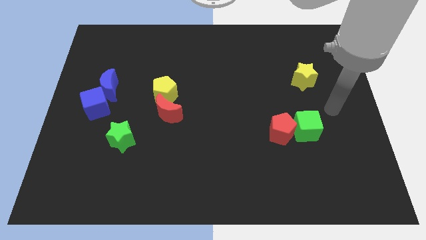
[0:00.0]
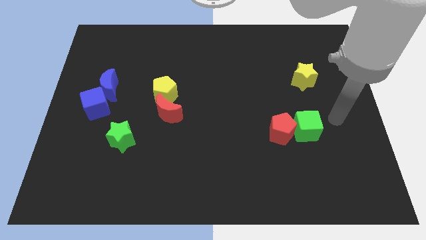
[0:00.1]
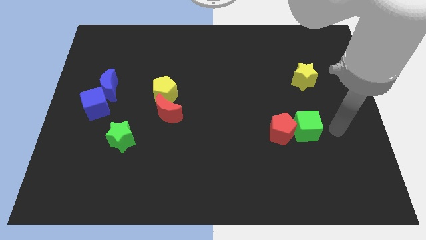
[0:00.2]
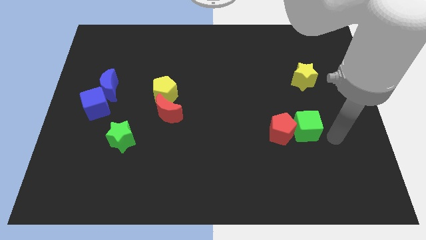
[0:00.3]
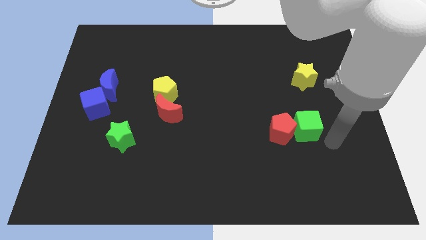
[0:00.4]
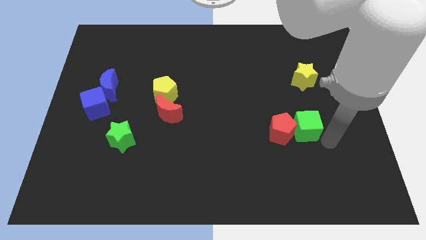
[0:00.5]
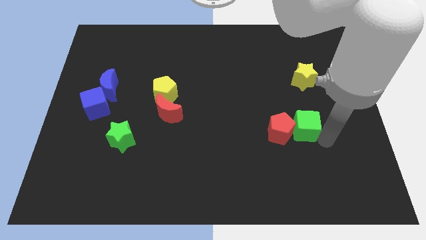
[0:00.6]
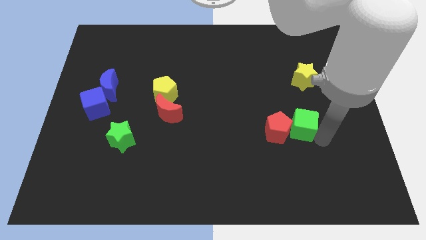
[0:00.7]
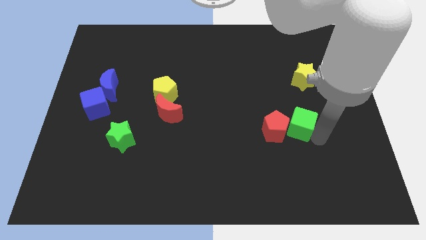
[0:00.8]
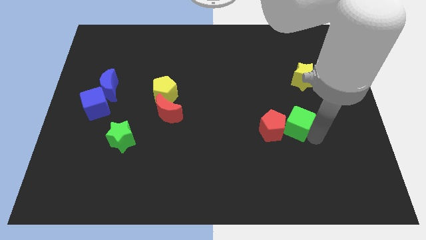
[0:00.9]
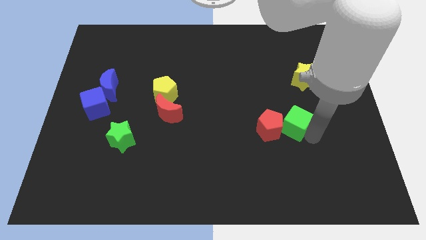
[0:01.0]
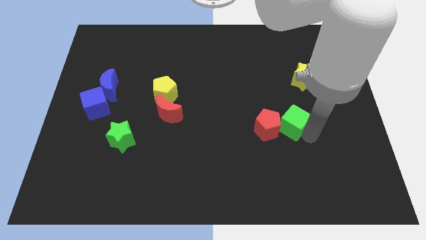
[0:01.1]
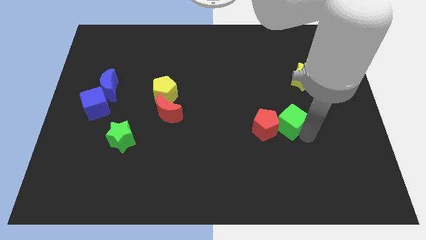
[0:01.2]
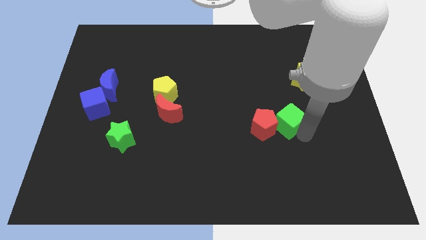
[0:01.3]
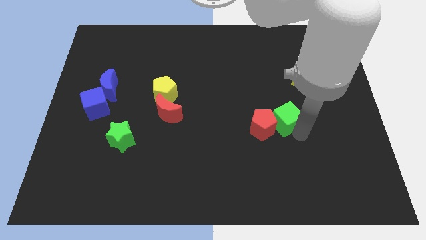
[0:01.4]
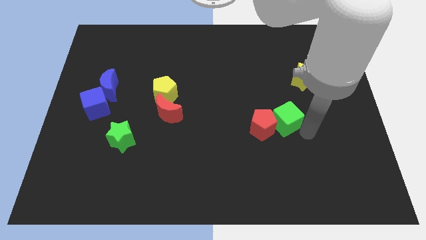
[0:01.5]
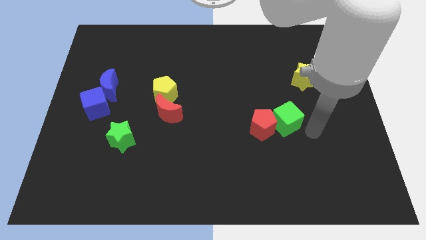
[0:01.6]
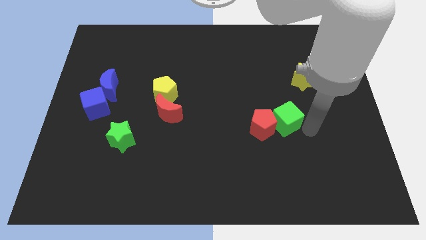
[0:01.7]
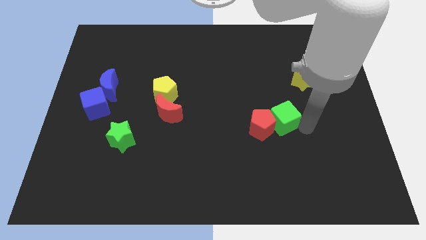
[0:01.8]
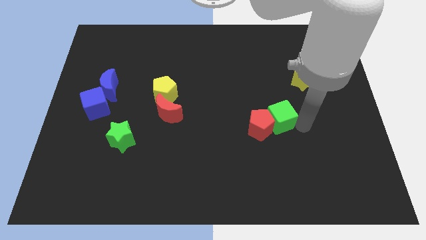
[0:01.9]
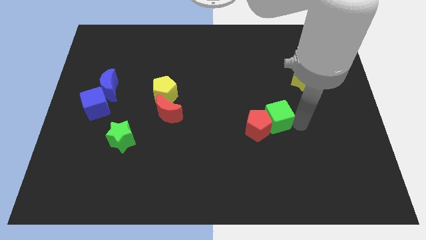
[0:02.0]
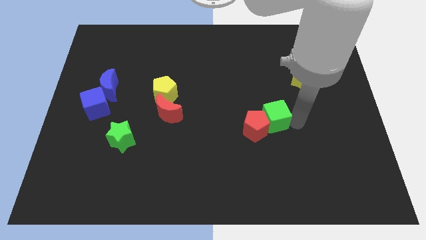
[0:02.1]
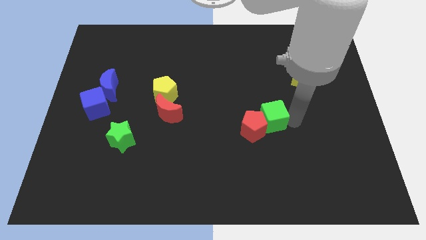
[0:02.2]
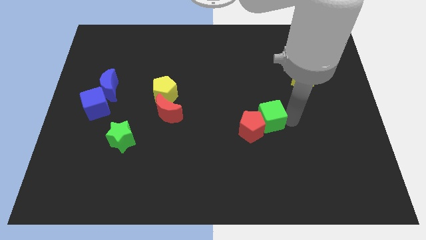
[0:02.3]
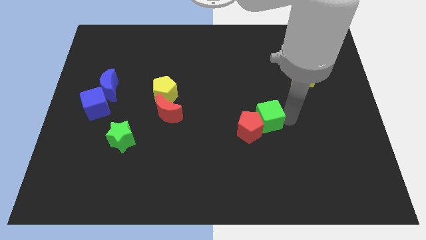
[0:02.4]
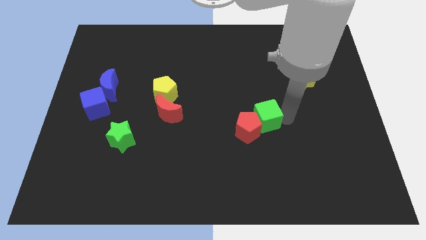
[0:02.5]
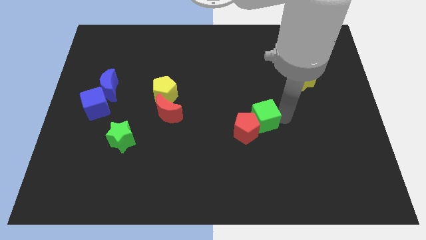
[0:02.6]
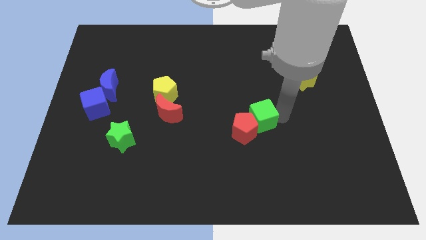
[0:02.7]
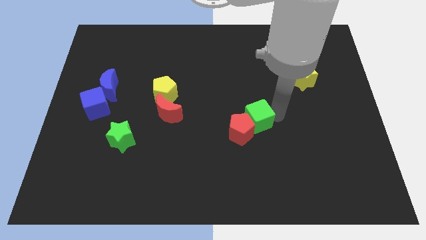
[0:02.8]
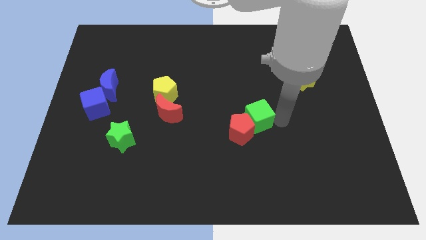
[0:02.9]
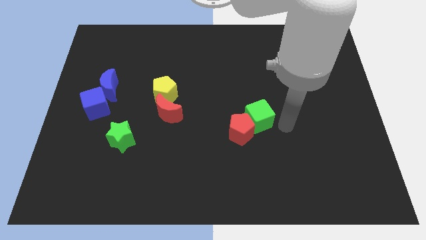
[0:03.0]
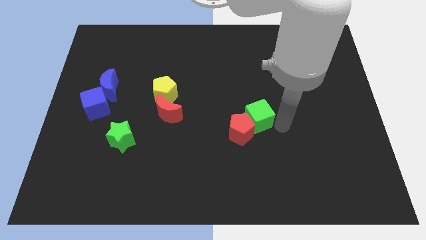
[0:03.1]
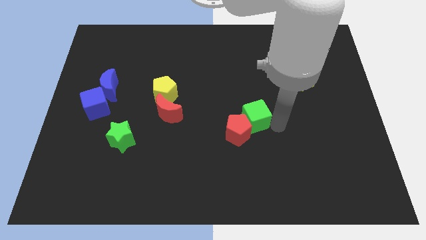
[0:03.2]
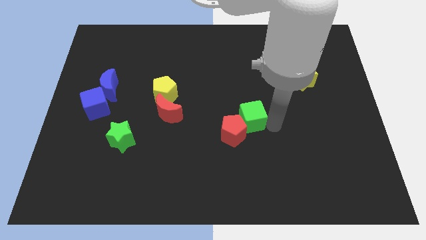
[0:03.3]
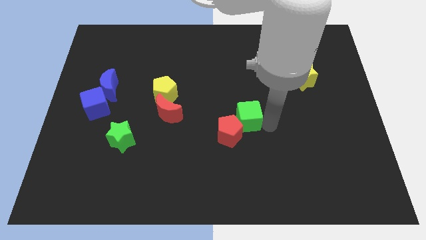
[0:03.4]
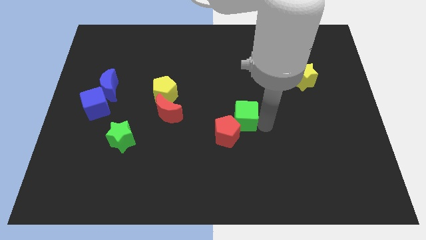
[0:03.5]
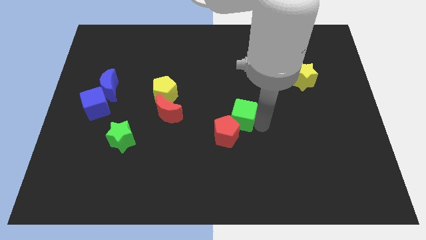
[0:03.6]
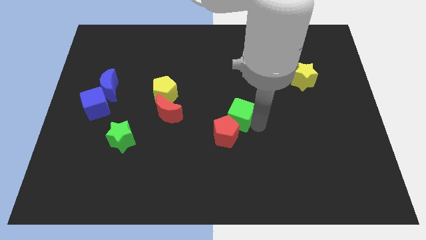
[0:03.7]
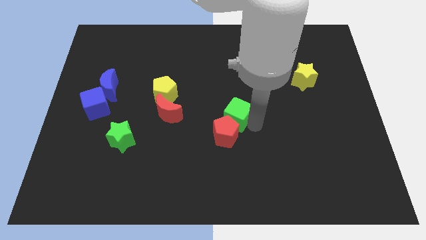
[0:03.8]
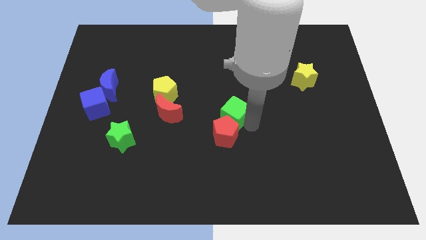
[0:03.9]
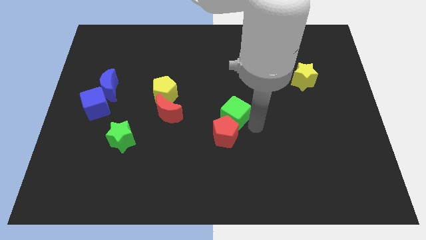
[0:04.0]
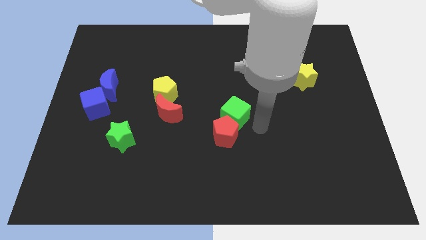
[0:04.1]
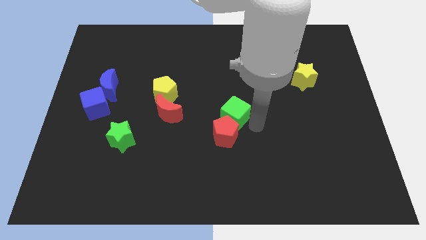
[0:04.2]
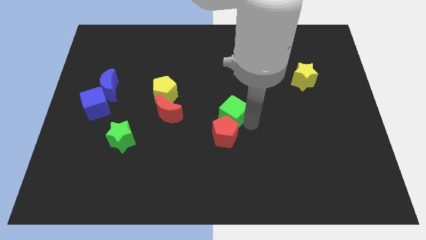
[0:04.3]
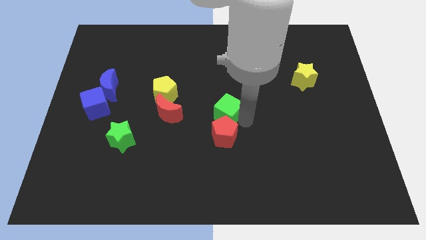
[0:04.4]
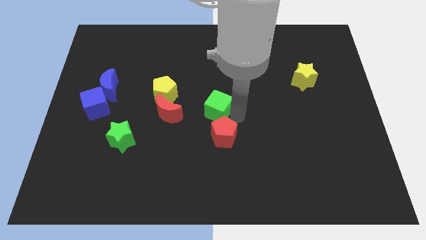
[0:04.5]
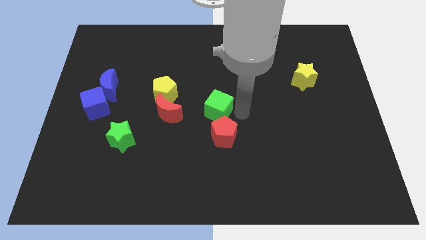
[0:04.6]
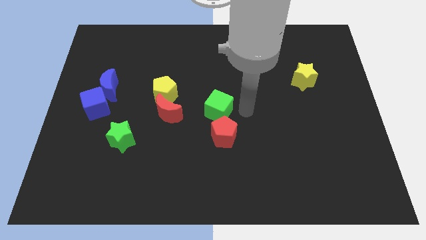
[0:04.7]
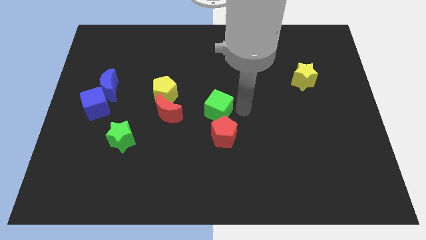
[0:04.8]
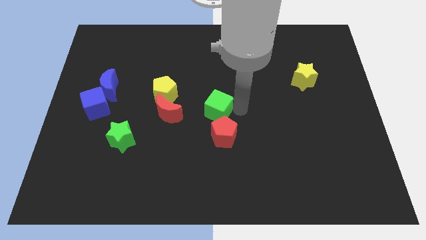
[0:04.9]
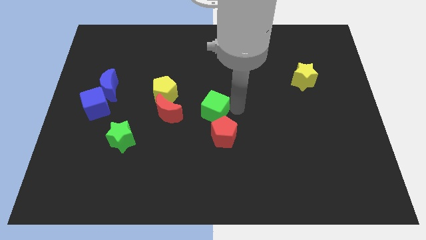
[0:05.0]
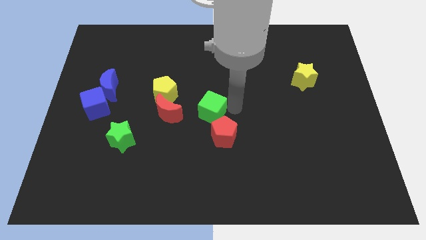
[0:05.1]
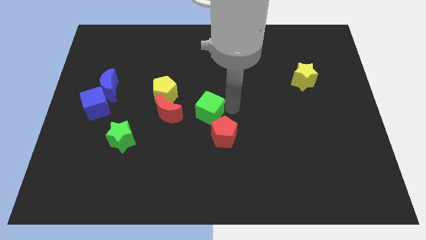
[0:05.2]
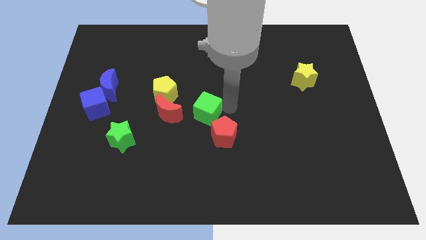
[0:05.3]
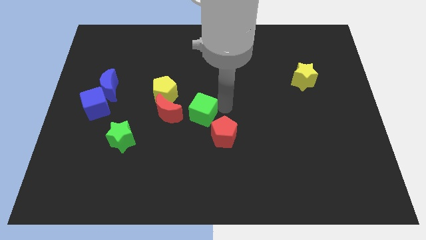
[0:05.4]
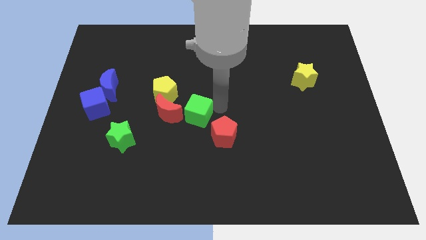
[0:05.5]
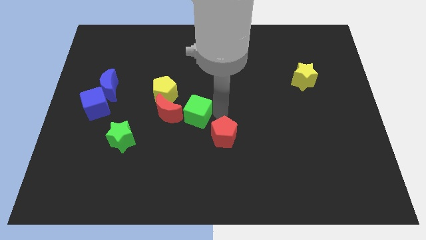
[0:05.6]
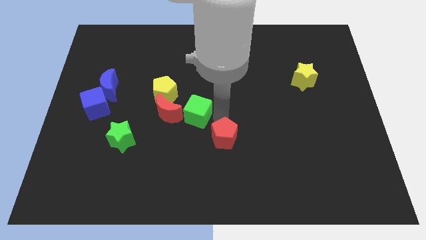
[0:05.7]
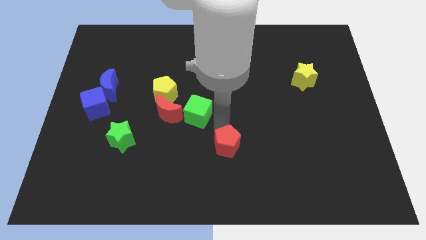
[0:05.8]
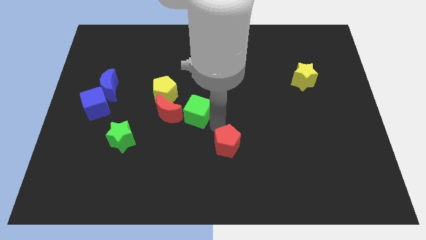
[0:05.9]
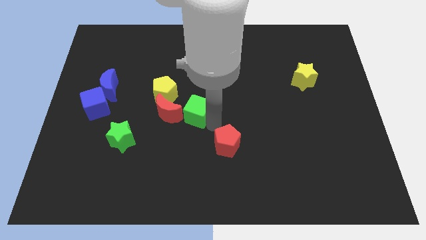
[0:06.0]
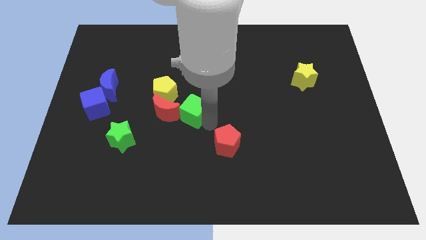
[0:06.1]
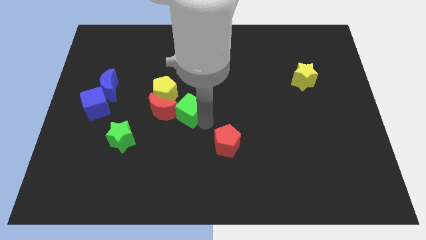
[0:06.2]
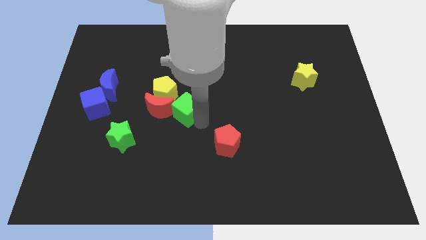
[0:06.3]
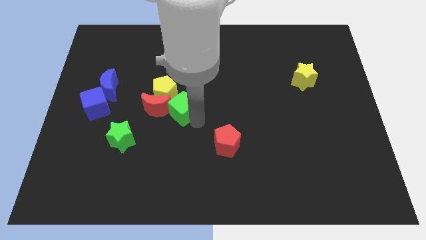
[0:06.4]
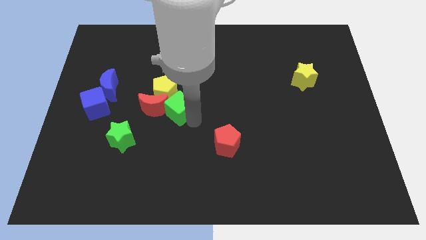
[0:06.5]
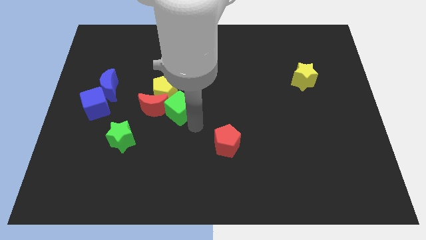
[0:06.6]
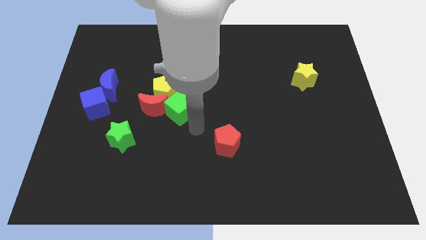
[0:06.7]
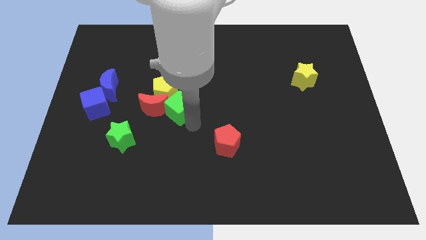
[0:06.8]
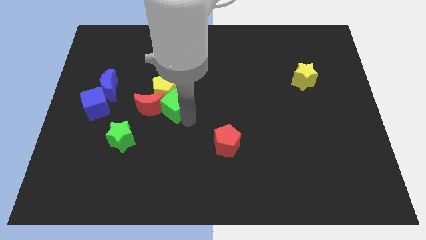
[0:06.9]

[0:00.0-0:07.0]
push the green cube next to the yellow pentagon
